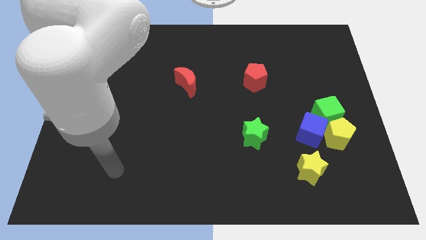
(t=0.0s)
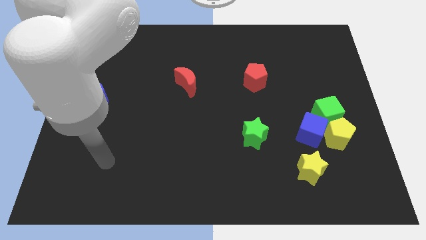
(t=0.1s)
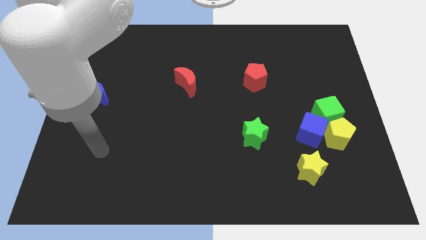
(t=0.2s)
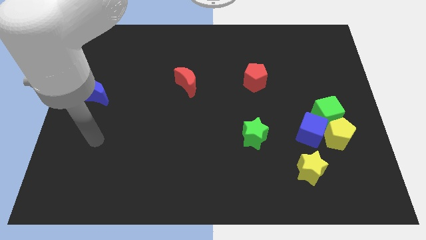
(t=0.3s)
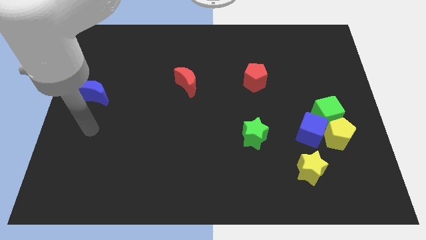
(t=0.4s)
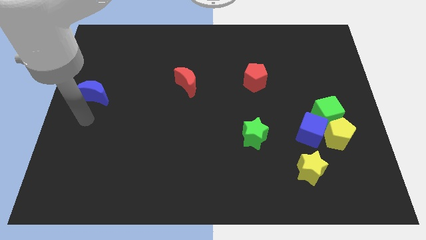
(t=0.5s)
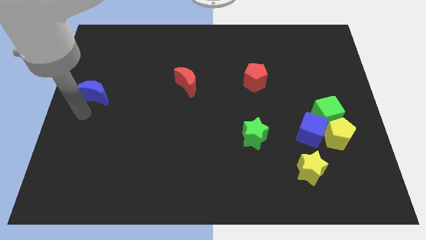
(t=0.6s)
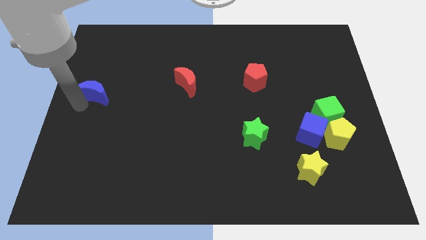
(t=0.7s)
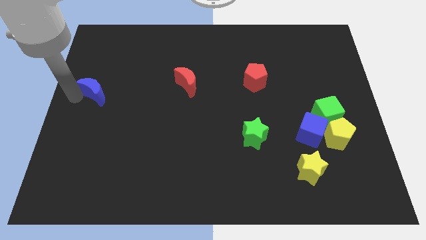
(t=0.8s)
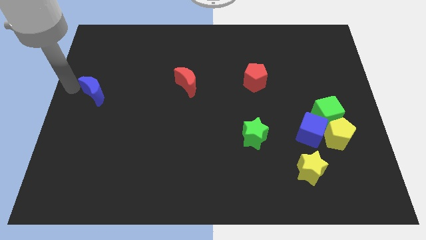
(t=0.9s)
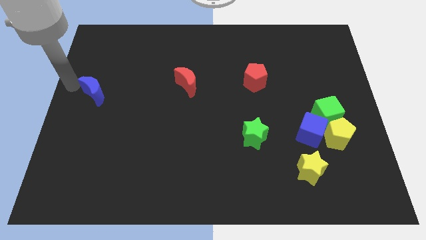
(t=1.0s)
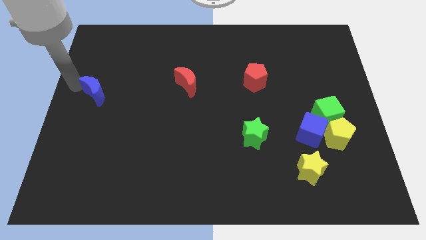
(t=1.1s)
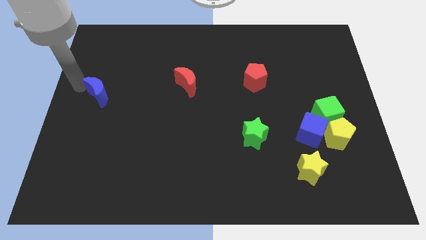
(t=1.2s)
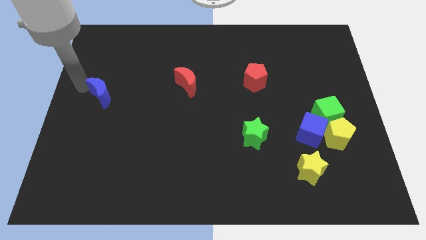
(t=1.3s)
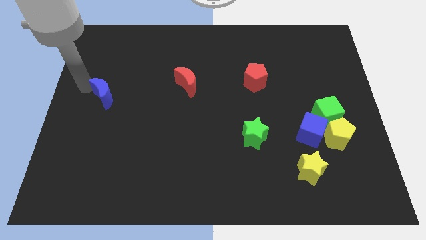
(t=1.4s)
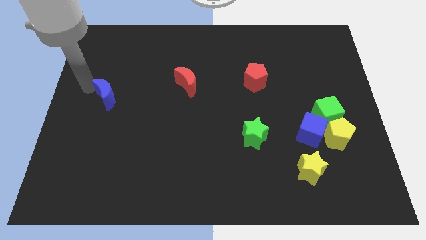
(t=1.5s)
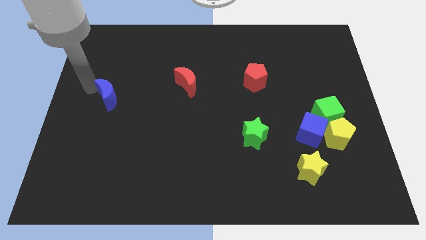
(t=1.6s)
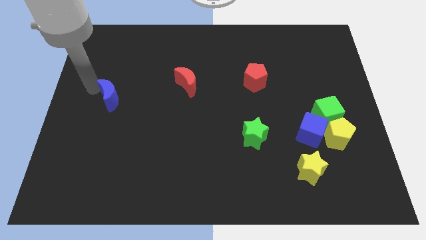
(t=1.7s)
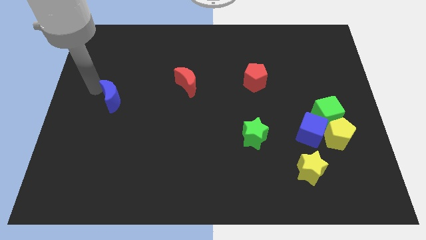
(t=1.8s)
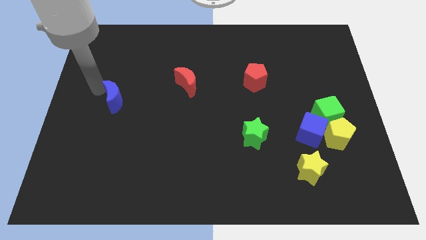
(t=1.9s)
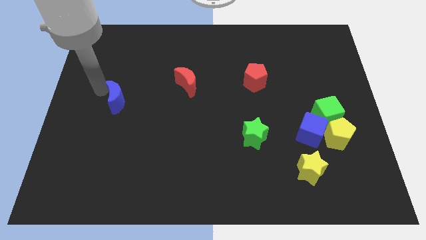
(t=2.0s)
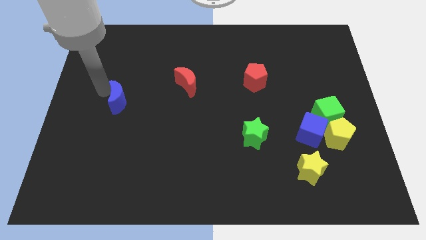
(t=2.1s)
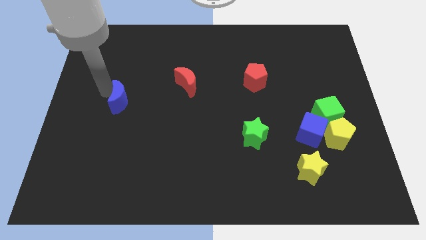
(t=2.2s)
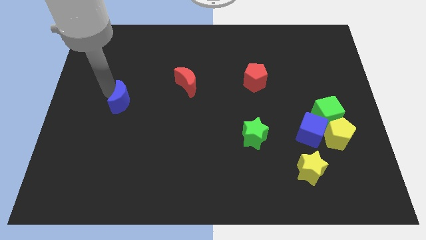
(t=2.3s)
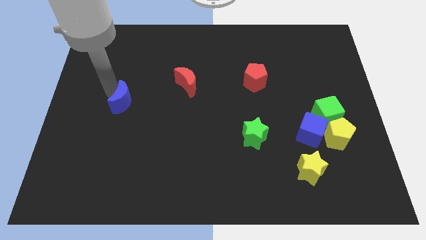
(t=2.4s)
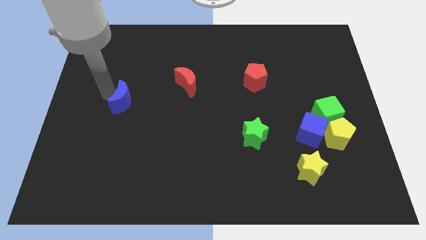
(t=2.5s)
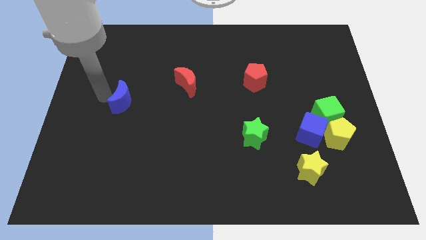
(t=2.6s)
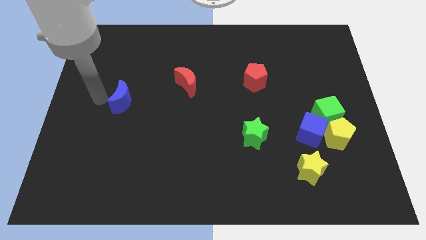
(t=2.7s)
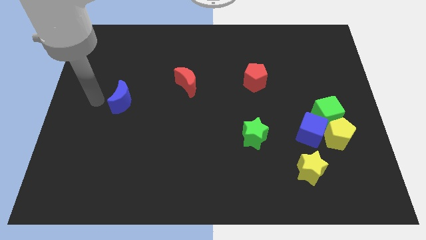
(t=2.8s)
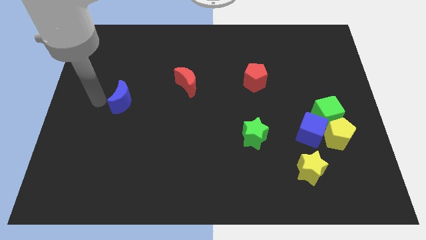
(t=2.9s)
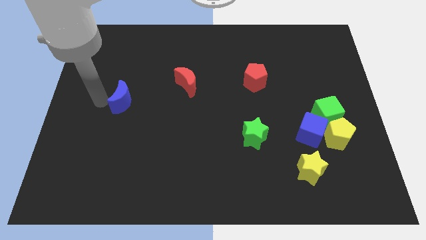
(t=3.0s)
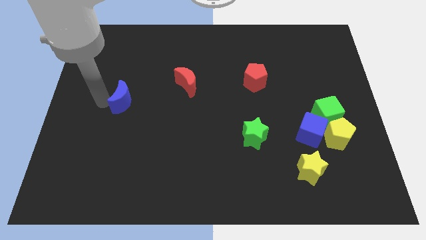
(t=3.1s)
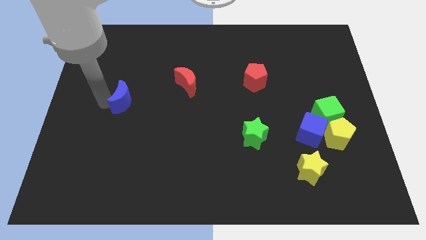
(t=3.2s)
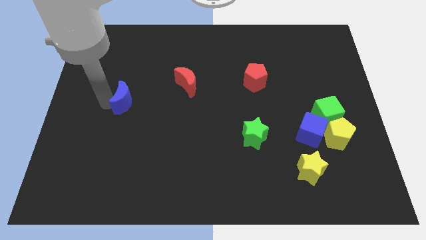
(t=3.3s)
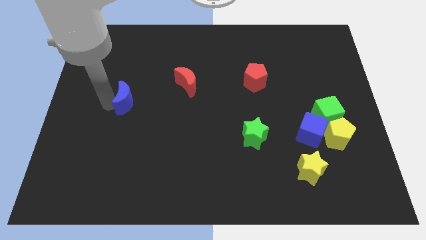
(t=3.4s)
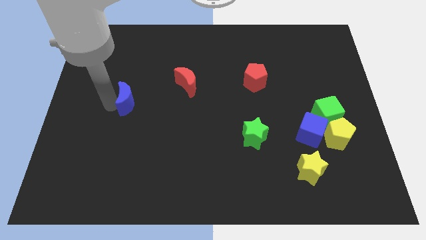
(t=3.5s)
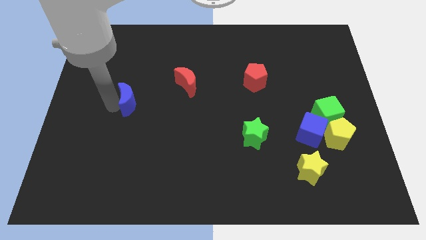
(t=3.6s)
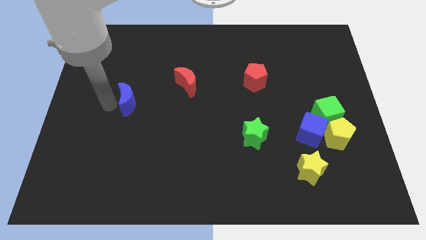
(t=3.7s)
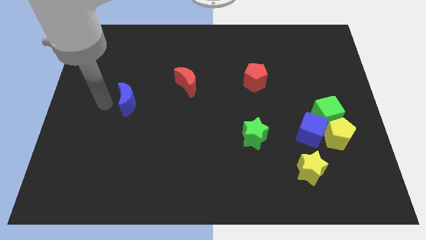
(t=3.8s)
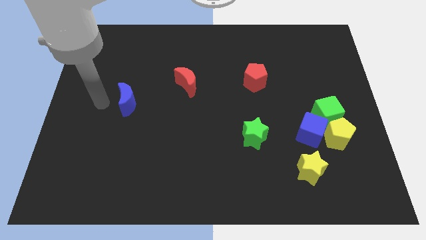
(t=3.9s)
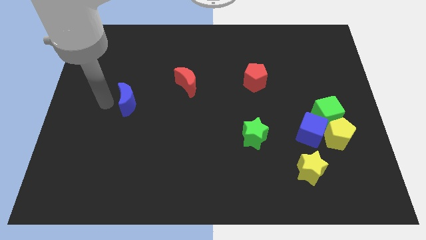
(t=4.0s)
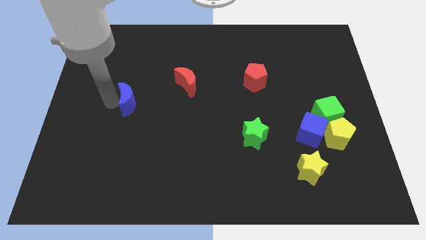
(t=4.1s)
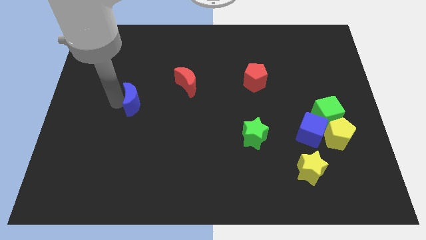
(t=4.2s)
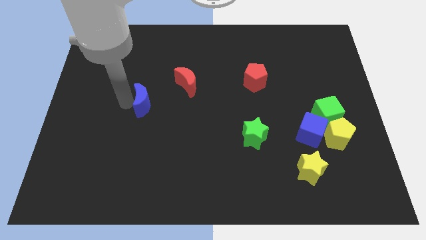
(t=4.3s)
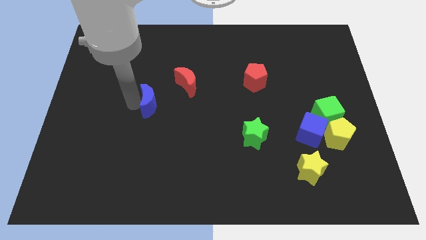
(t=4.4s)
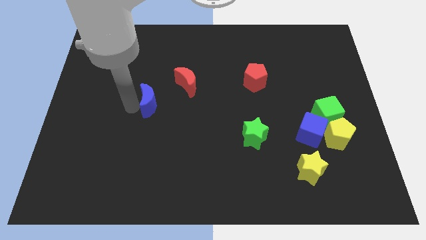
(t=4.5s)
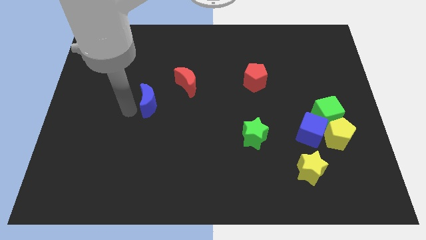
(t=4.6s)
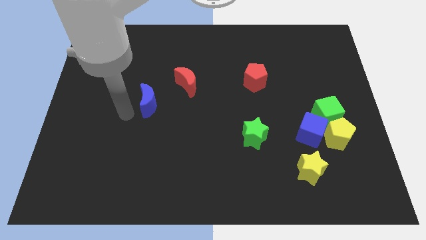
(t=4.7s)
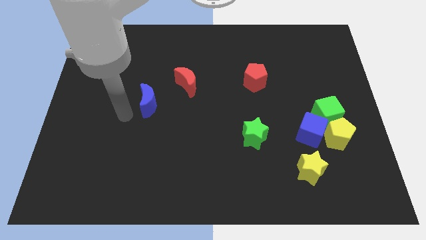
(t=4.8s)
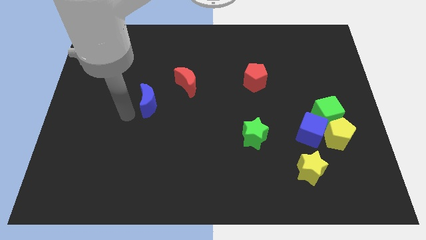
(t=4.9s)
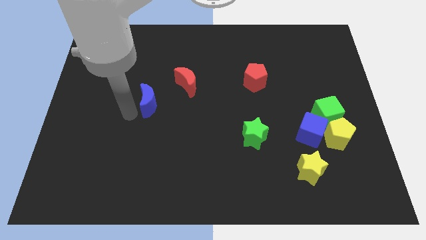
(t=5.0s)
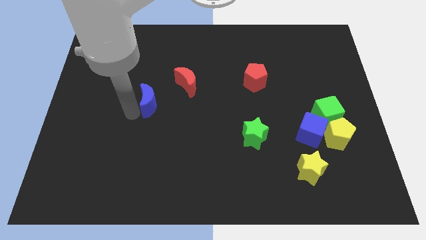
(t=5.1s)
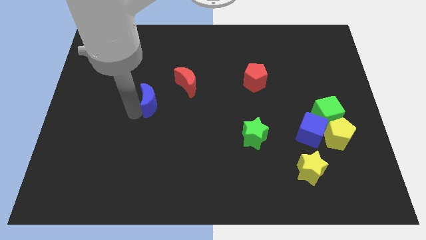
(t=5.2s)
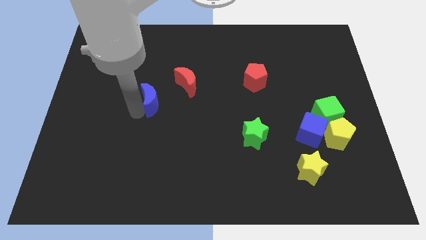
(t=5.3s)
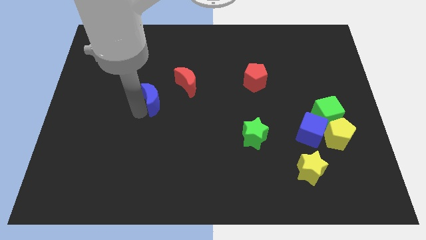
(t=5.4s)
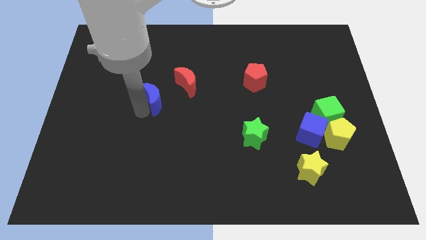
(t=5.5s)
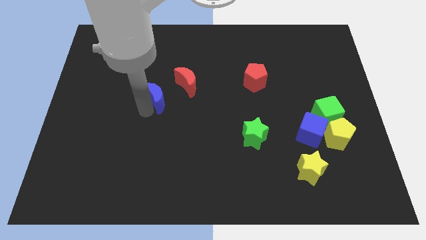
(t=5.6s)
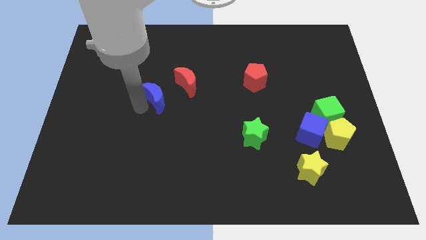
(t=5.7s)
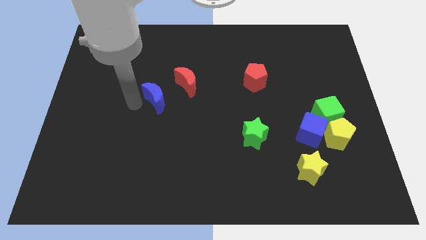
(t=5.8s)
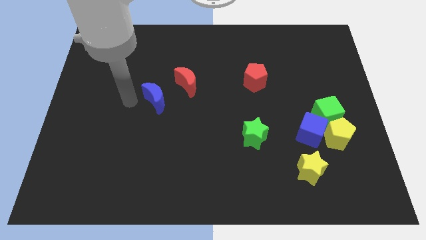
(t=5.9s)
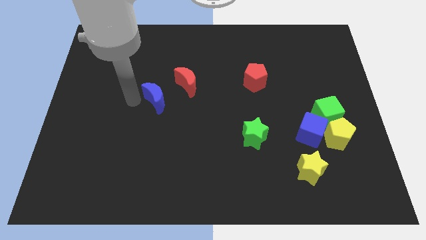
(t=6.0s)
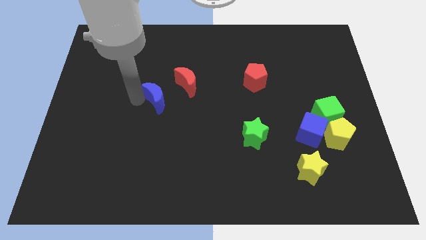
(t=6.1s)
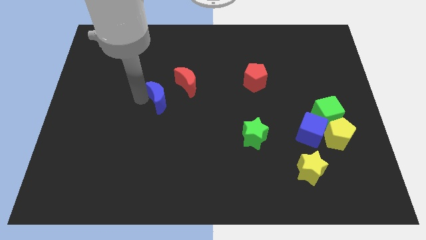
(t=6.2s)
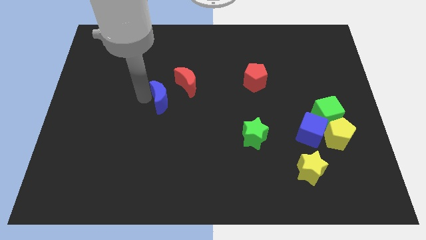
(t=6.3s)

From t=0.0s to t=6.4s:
put the blue moon to the center

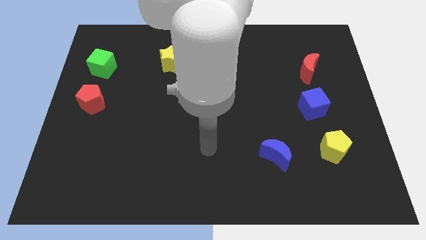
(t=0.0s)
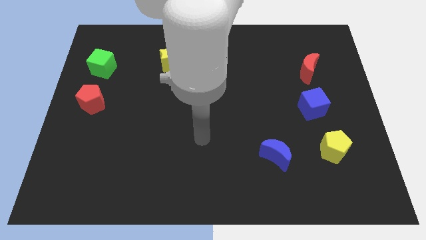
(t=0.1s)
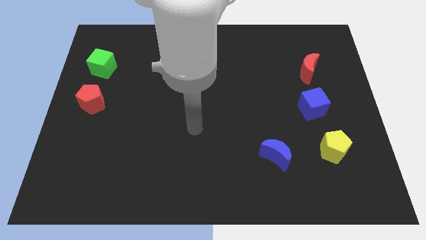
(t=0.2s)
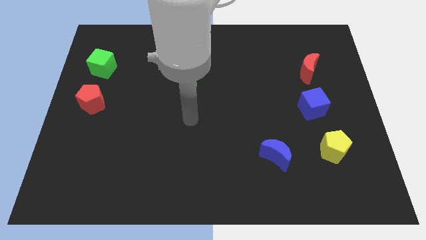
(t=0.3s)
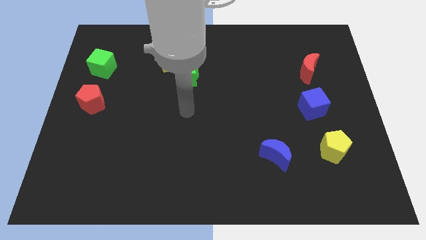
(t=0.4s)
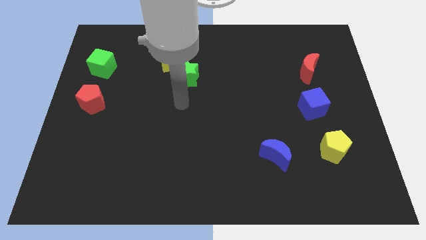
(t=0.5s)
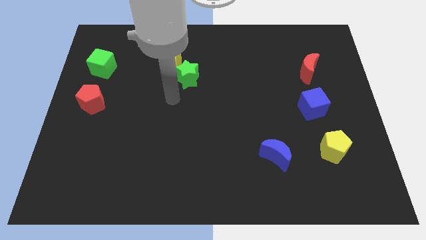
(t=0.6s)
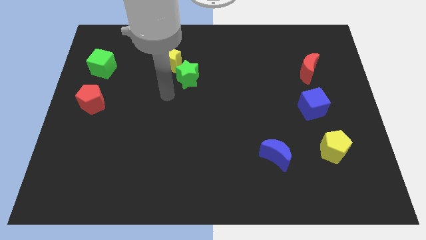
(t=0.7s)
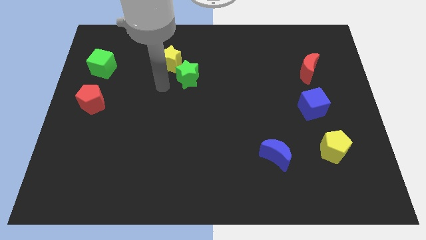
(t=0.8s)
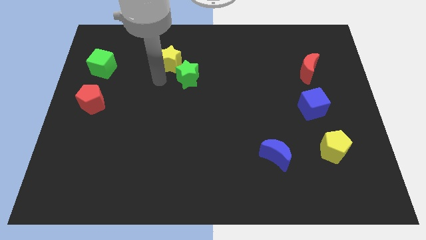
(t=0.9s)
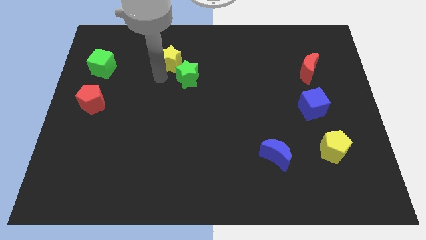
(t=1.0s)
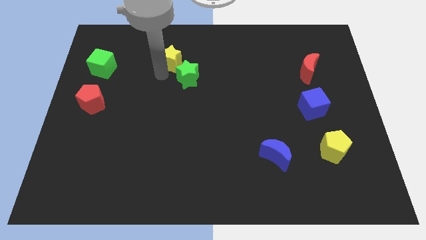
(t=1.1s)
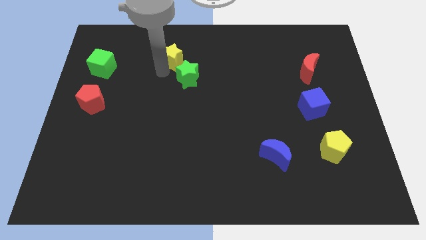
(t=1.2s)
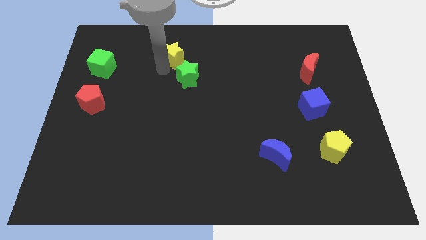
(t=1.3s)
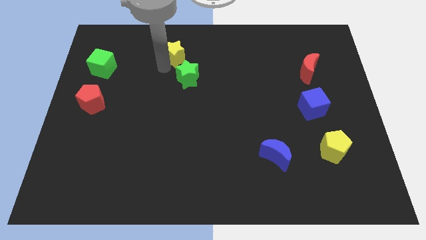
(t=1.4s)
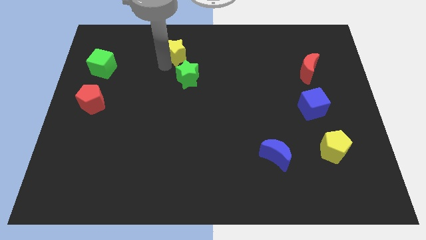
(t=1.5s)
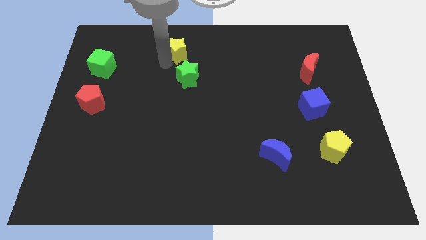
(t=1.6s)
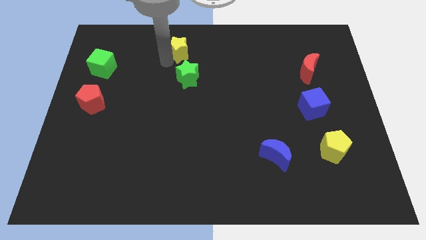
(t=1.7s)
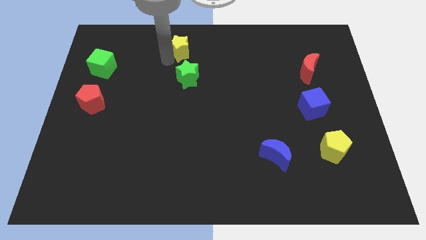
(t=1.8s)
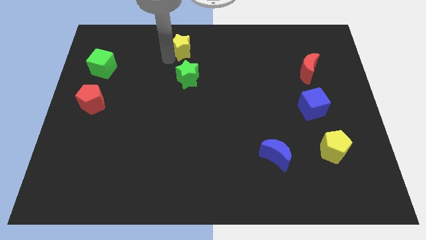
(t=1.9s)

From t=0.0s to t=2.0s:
move the yellow star to the towards your base
